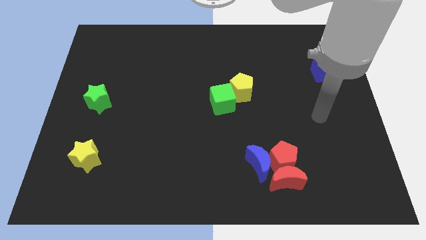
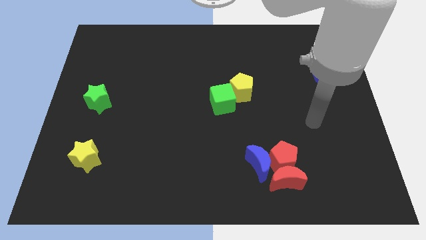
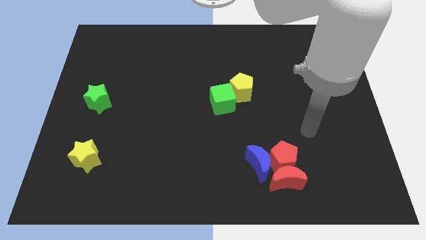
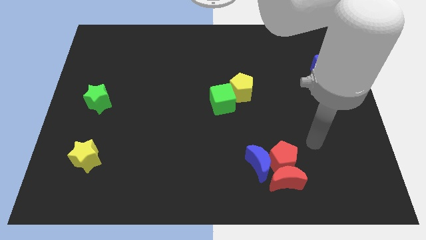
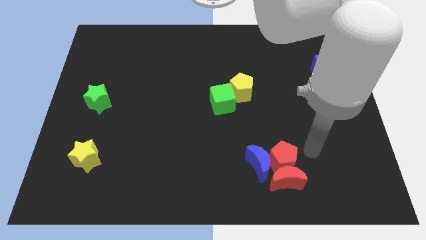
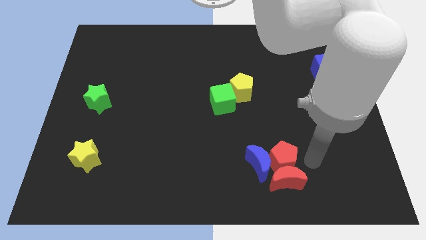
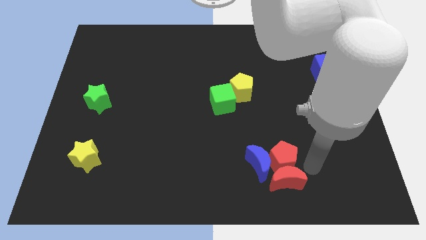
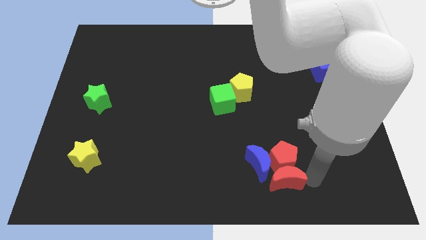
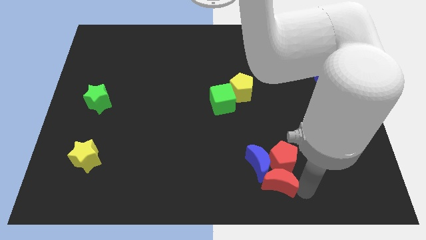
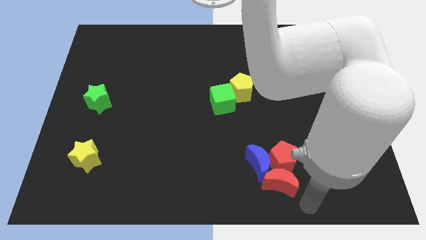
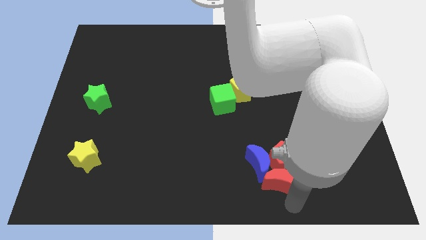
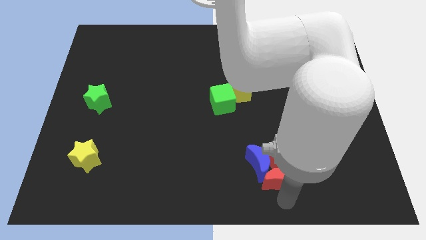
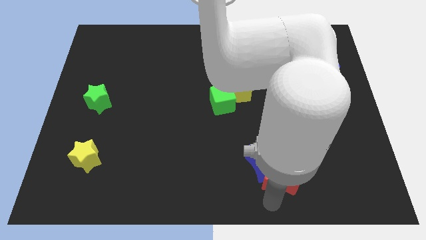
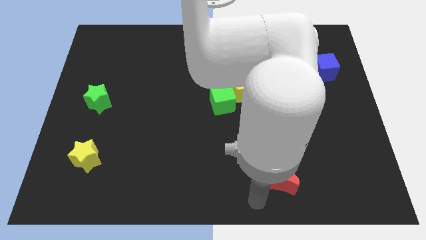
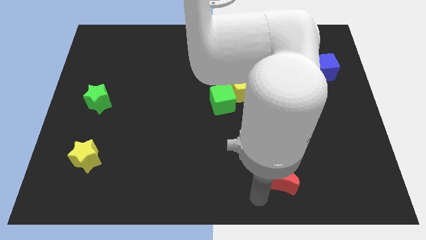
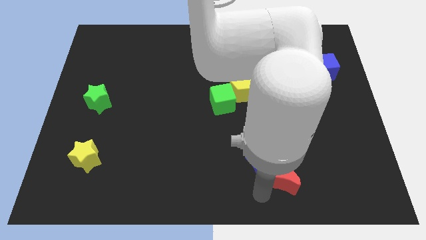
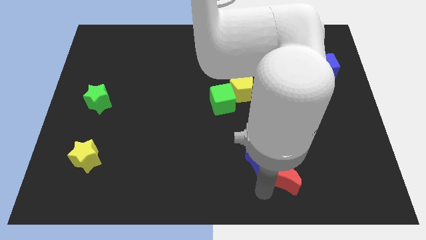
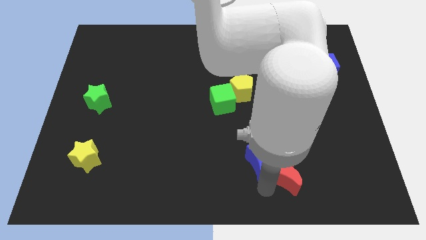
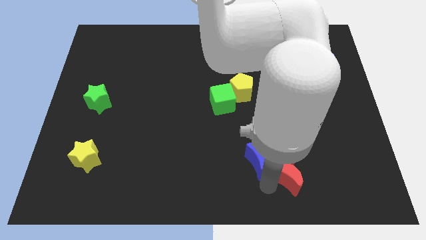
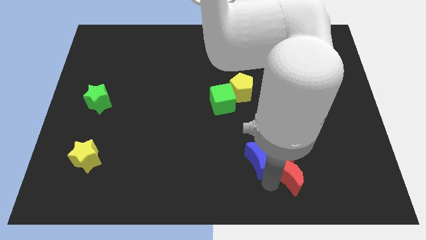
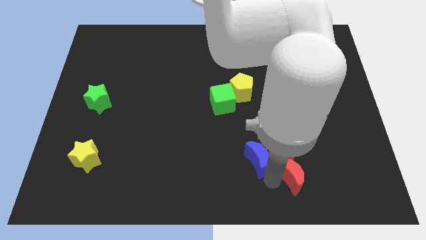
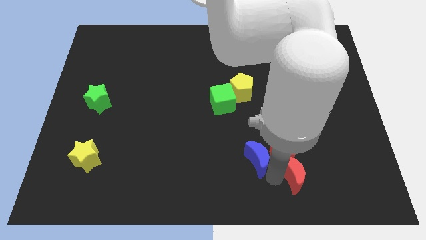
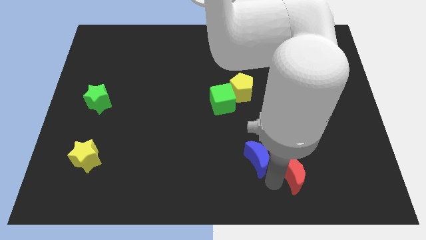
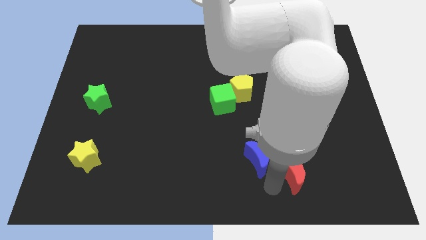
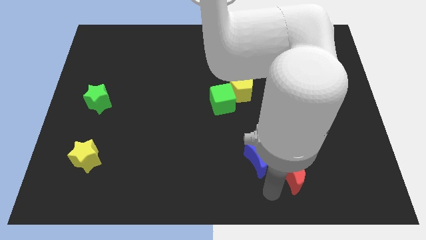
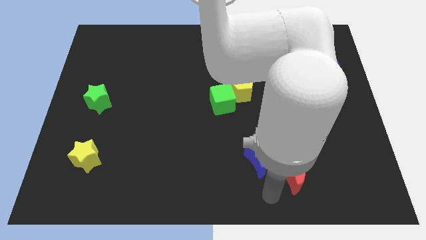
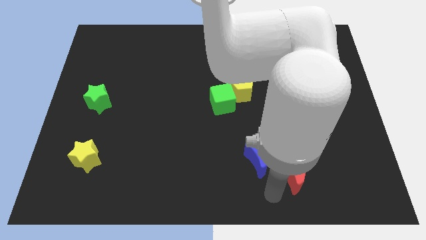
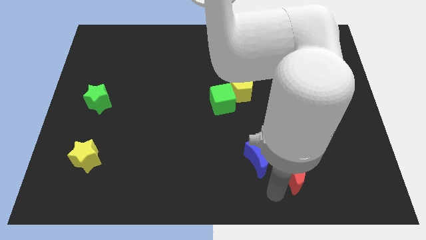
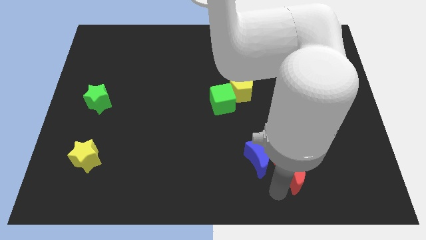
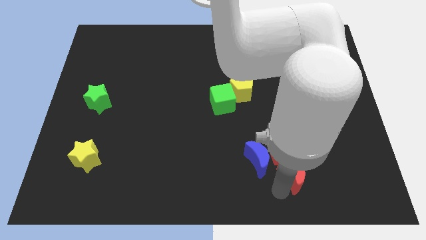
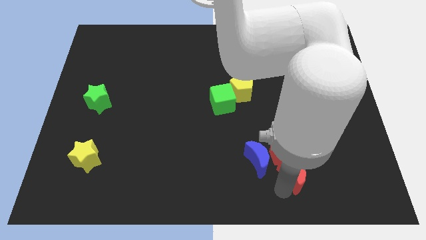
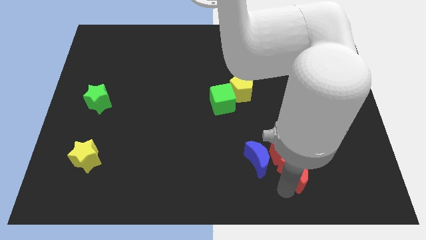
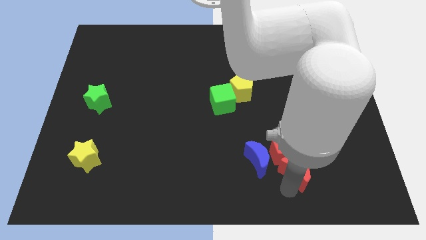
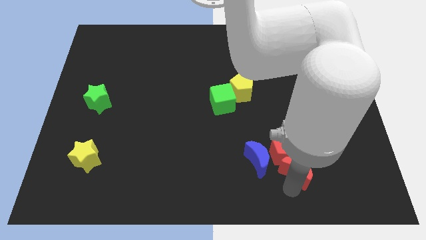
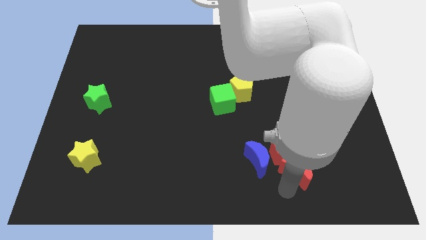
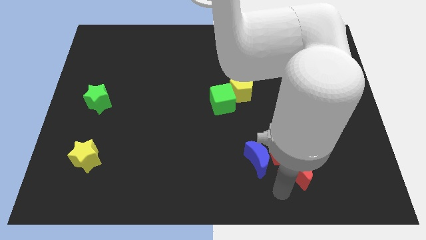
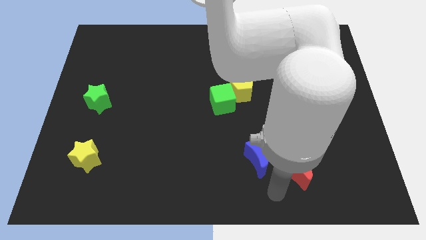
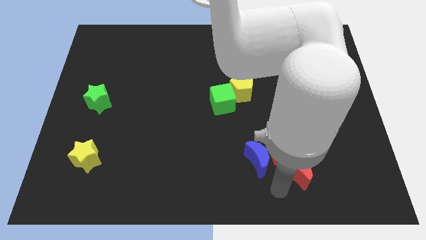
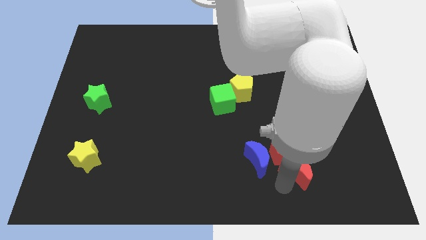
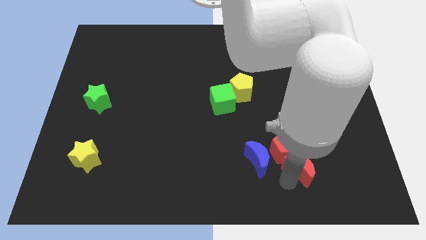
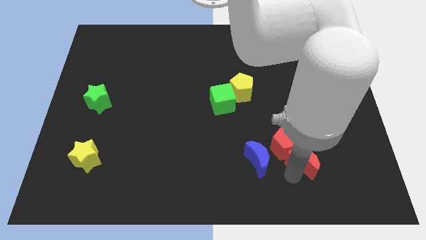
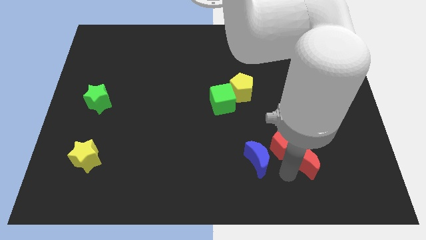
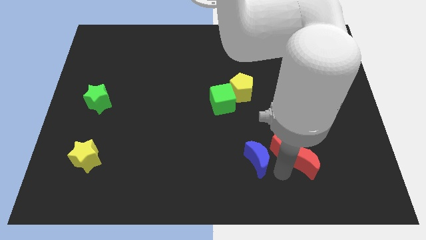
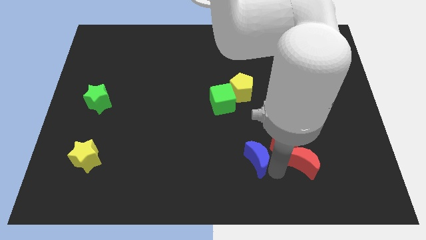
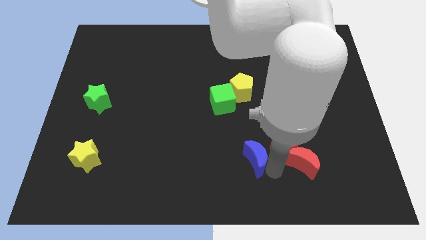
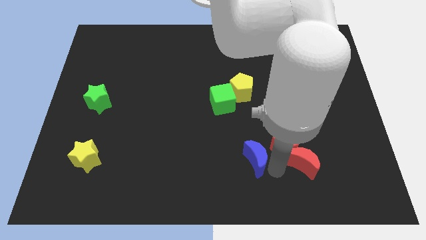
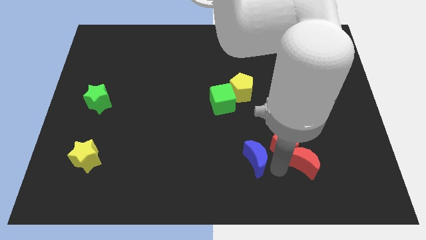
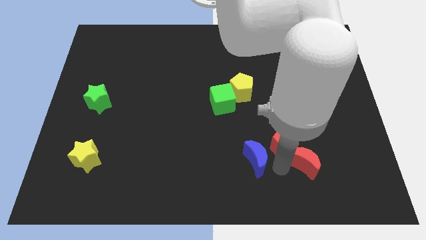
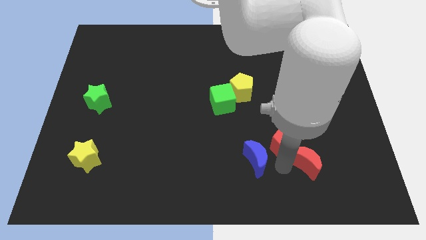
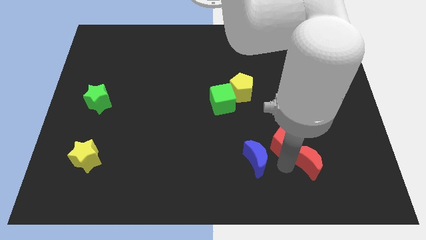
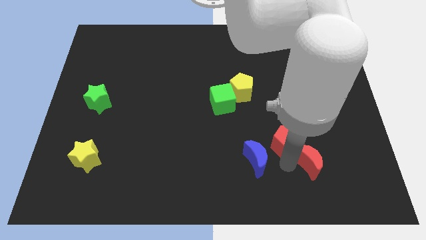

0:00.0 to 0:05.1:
slide the red moon up and right diagonally slightly

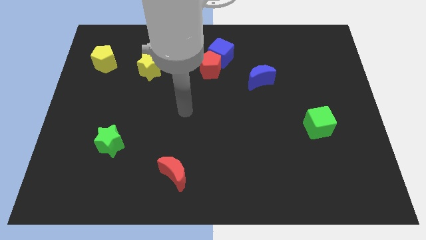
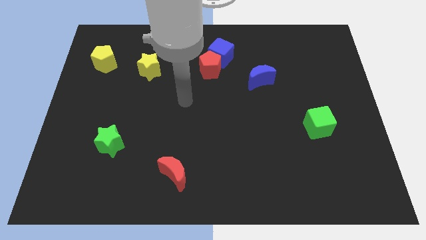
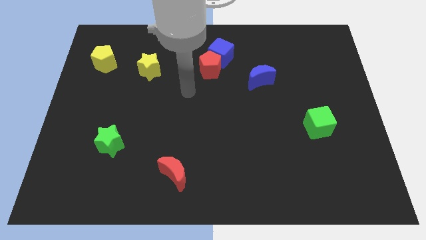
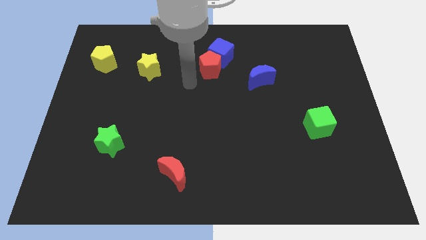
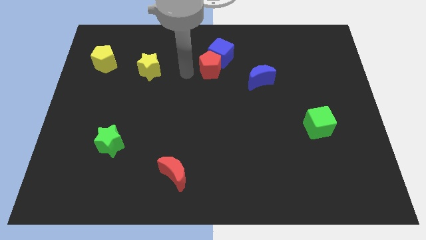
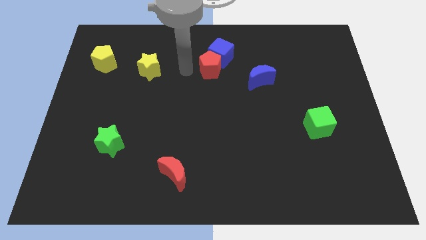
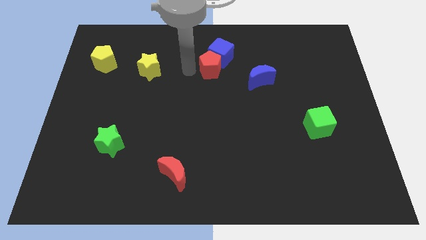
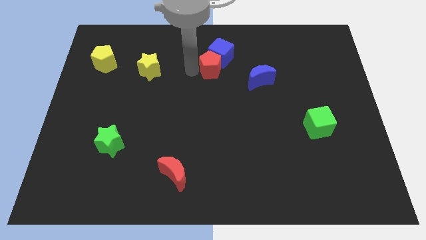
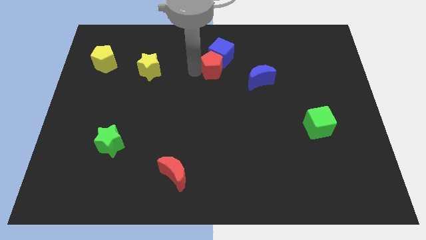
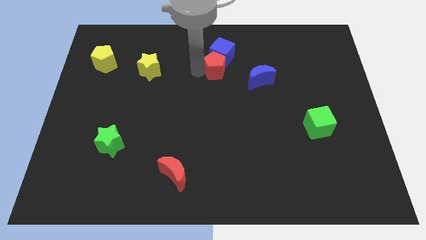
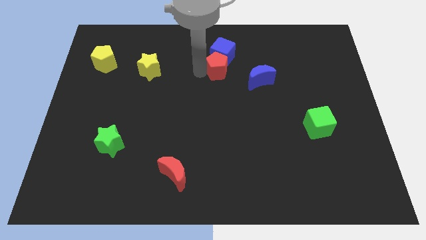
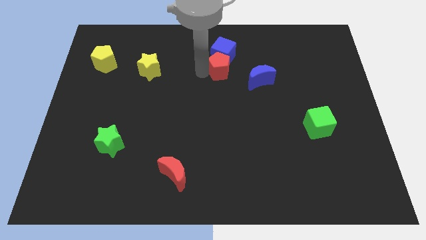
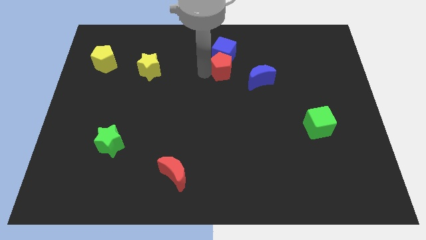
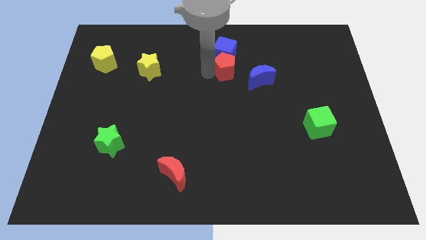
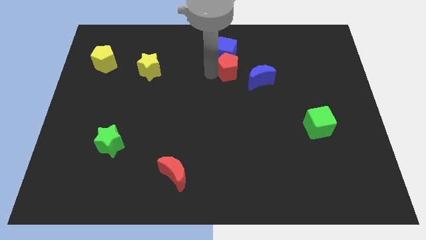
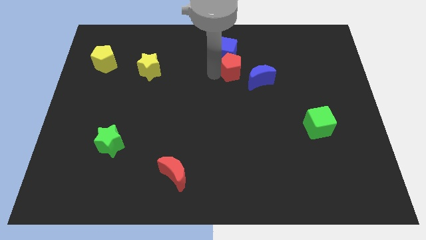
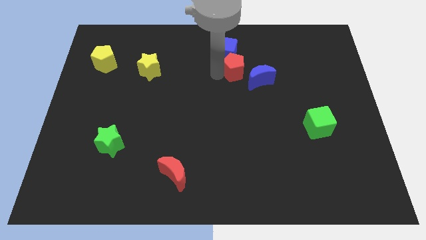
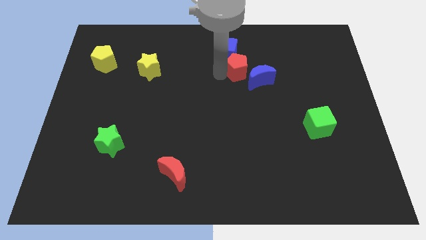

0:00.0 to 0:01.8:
push the red pentagon slightly right

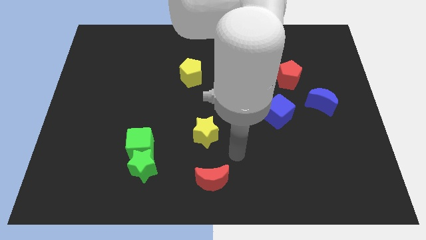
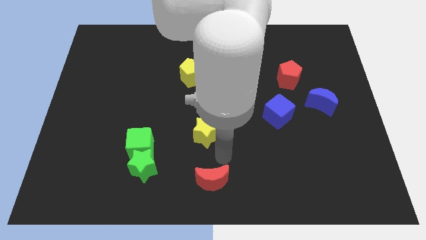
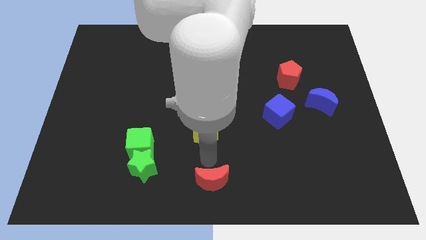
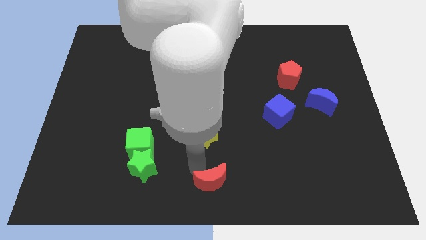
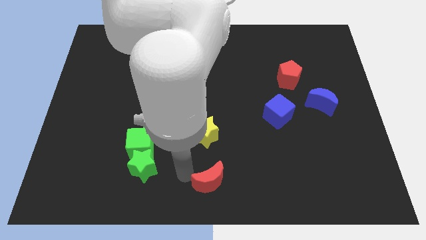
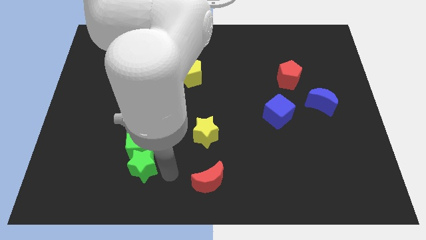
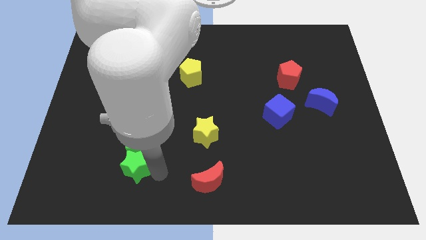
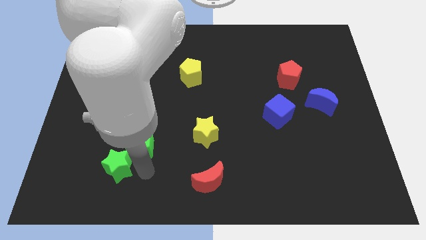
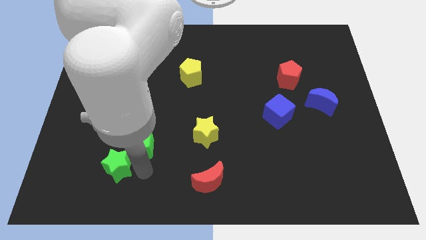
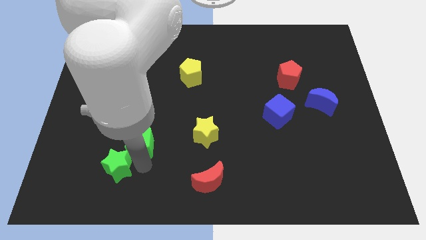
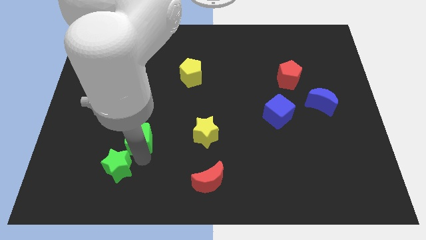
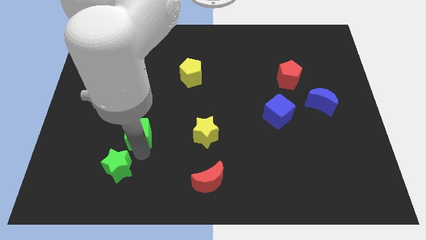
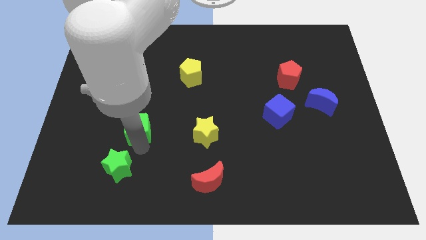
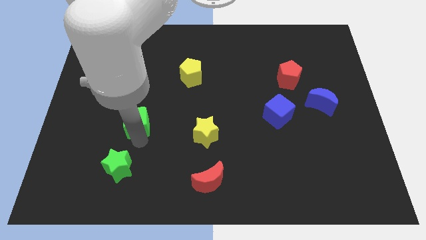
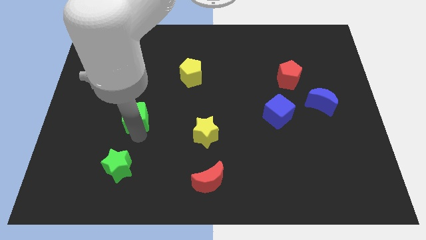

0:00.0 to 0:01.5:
slide the green cube up somewhat

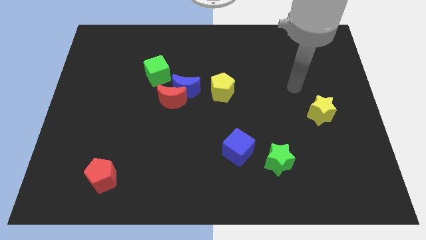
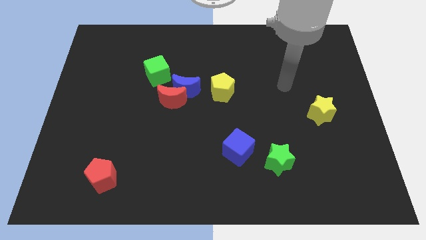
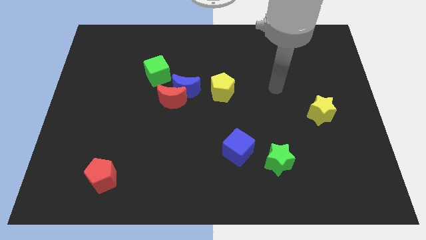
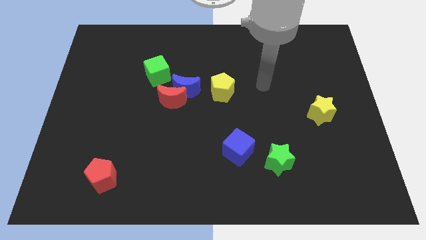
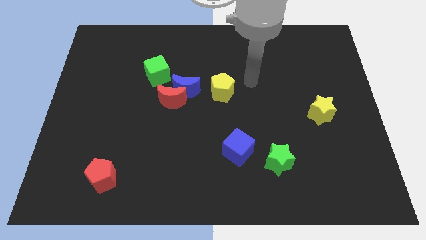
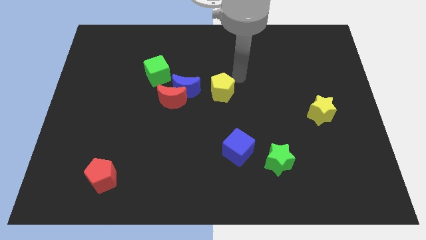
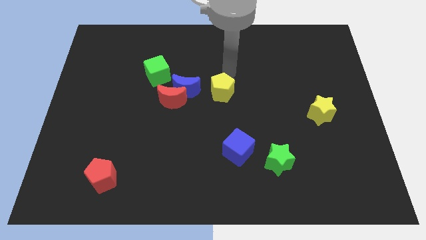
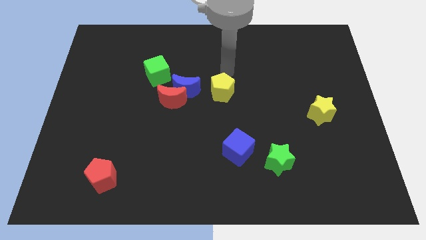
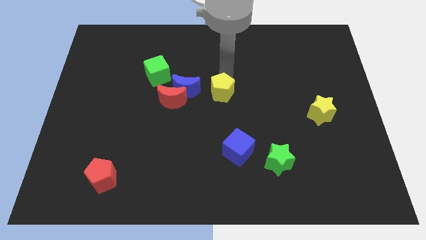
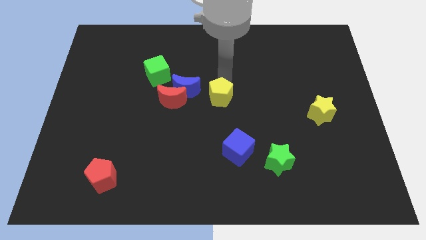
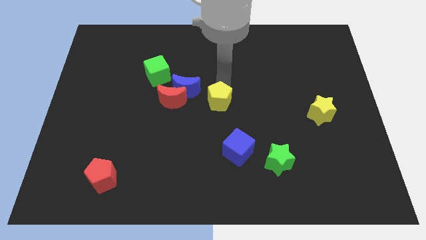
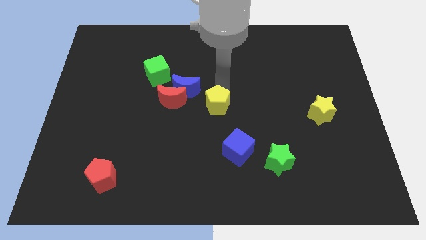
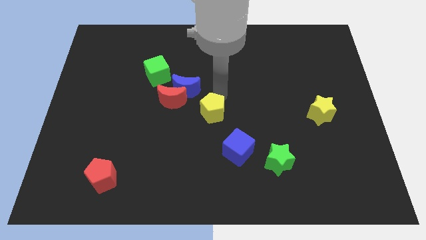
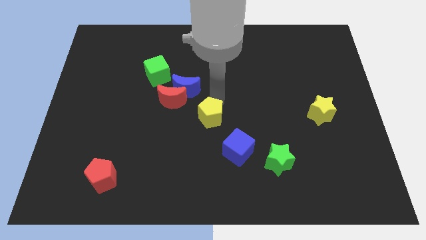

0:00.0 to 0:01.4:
push the yellow pentagon down a little
